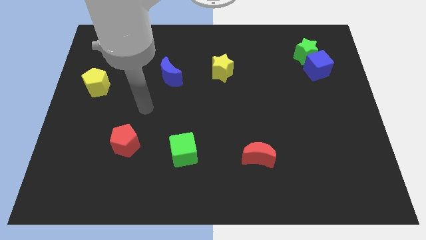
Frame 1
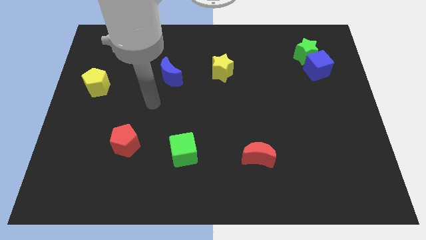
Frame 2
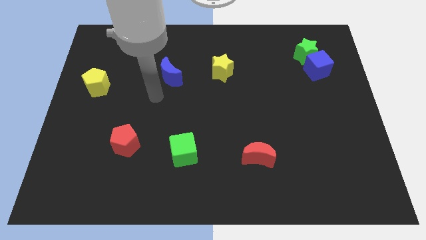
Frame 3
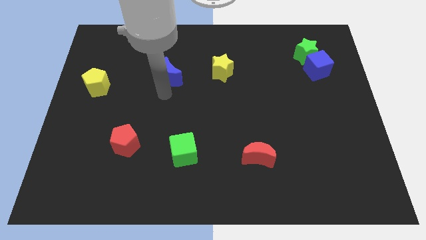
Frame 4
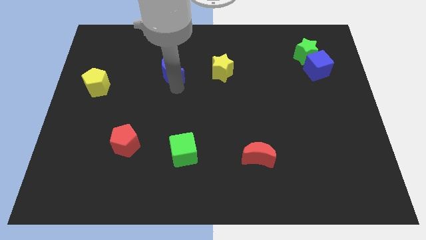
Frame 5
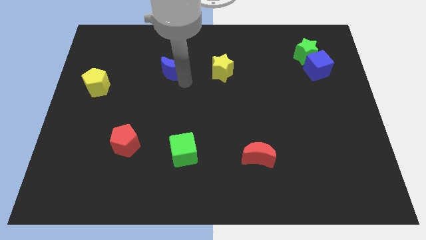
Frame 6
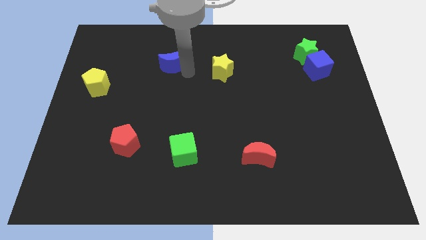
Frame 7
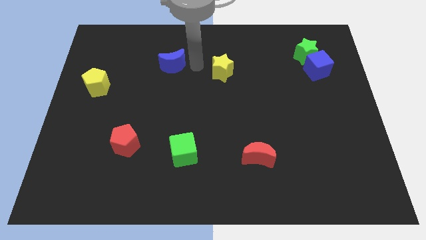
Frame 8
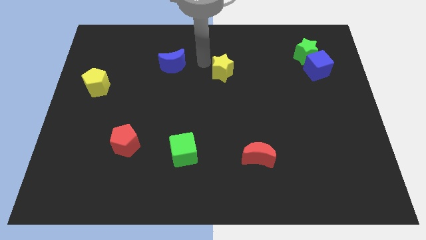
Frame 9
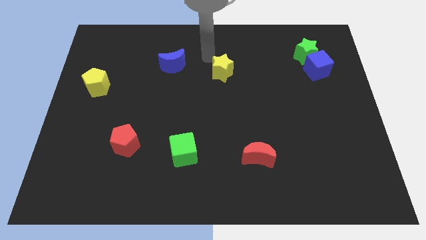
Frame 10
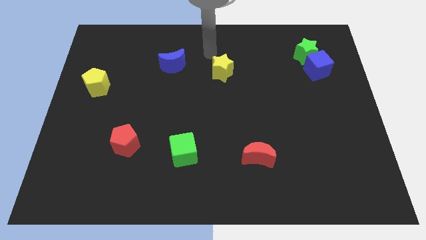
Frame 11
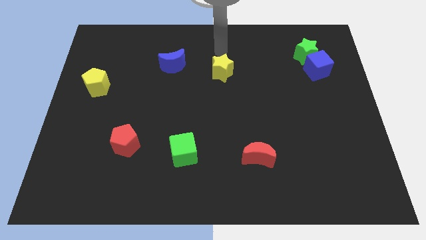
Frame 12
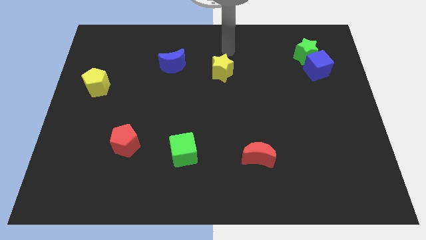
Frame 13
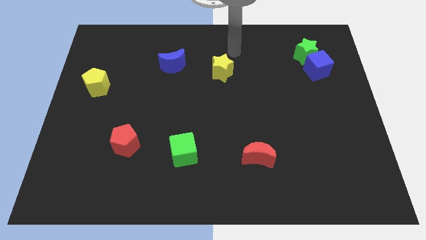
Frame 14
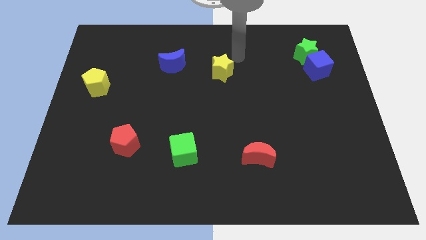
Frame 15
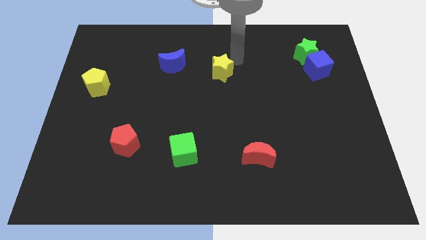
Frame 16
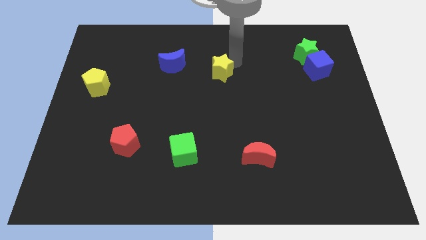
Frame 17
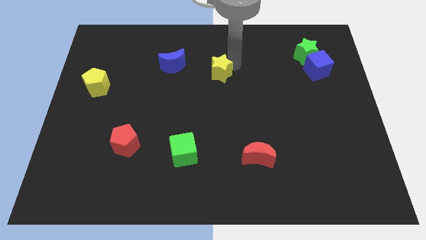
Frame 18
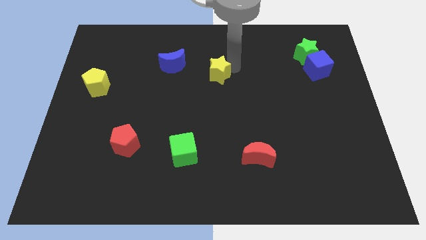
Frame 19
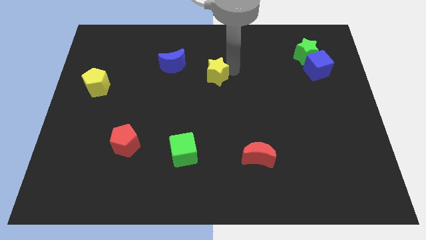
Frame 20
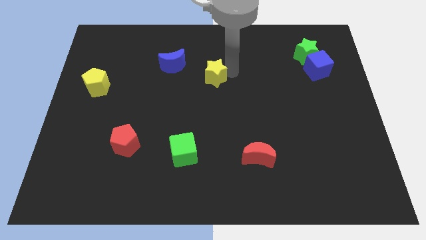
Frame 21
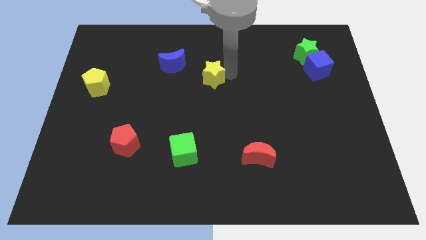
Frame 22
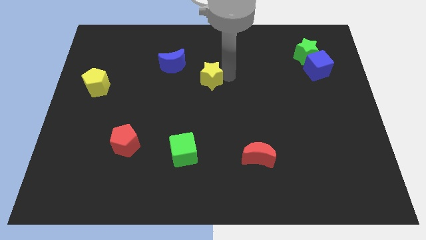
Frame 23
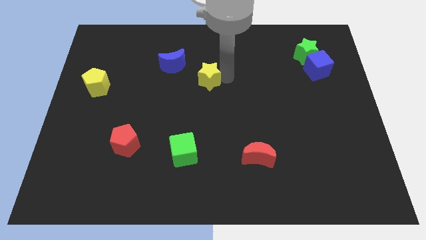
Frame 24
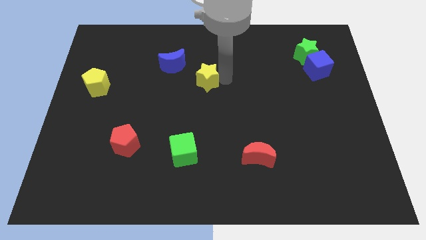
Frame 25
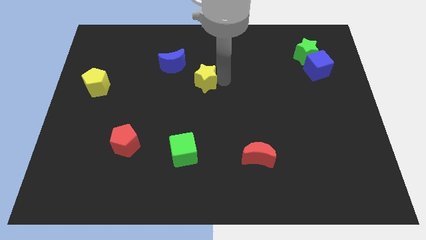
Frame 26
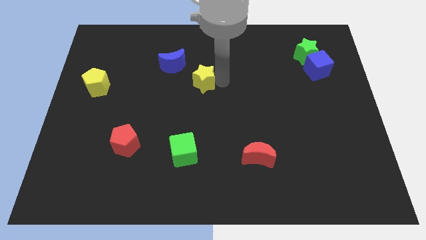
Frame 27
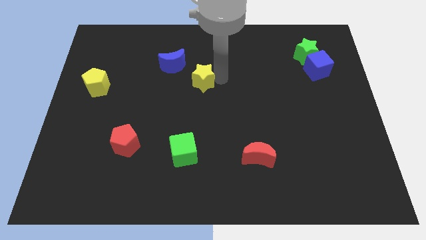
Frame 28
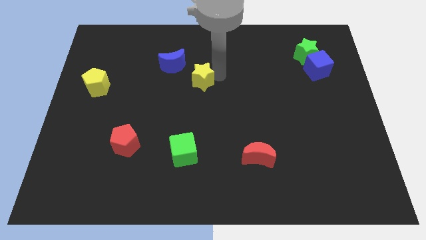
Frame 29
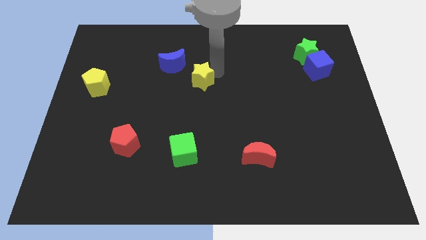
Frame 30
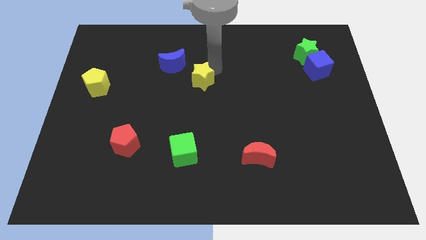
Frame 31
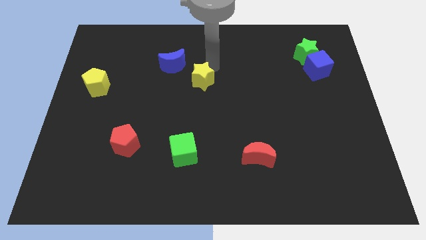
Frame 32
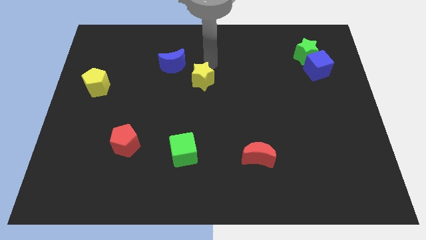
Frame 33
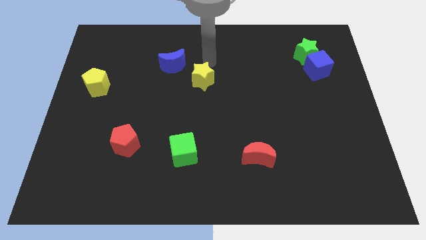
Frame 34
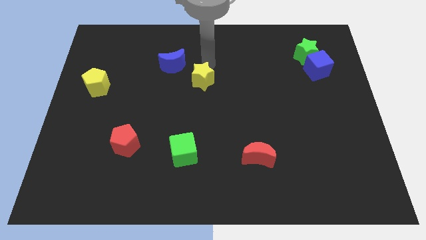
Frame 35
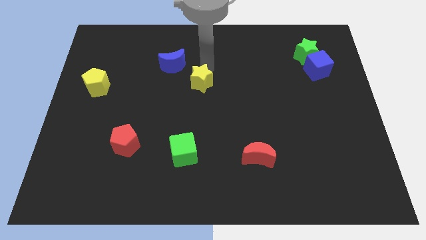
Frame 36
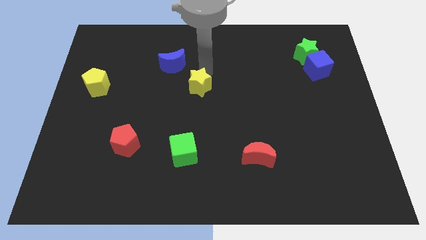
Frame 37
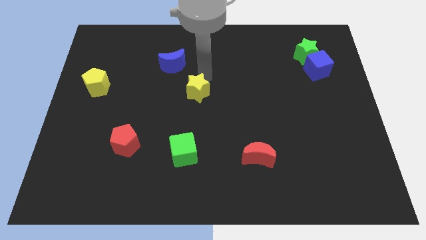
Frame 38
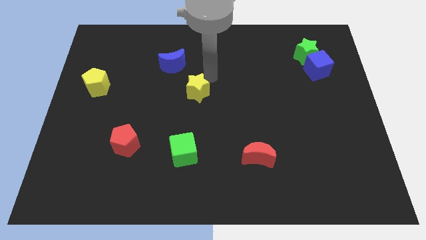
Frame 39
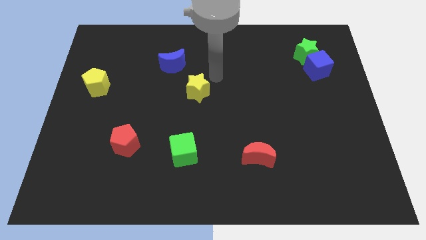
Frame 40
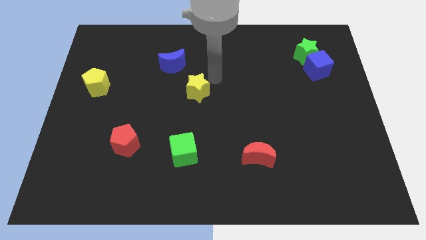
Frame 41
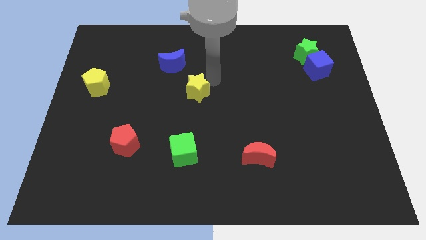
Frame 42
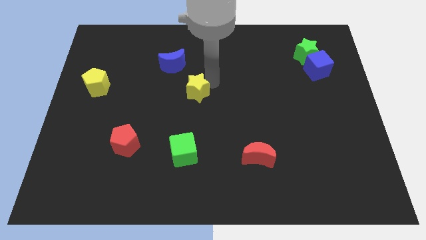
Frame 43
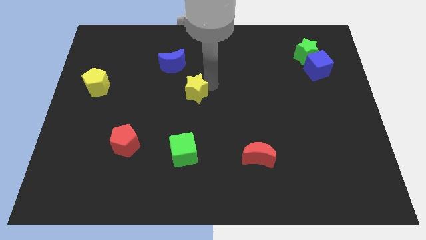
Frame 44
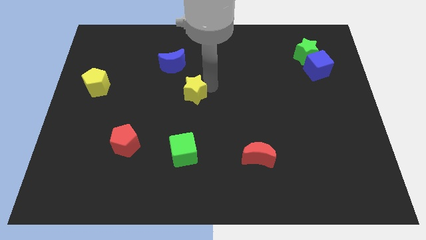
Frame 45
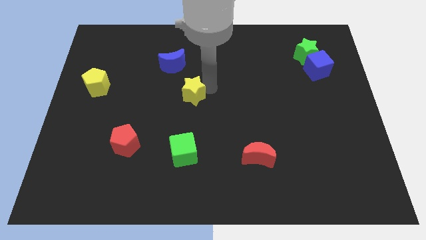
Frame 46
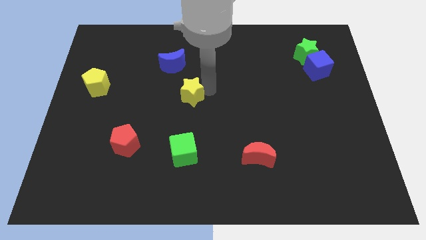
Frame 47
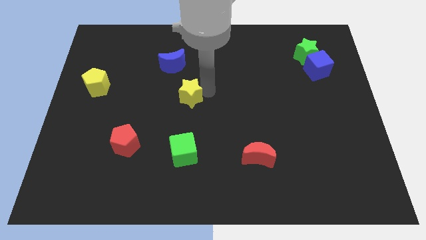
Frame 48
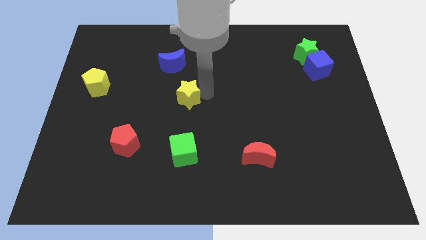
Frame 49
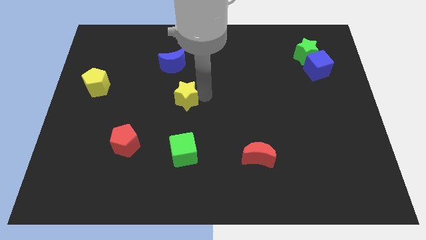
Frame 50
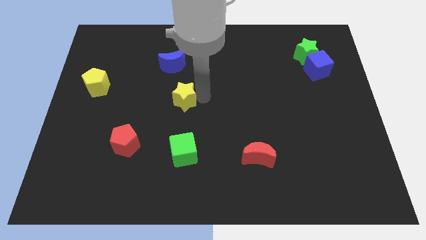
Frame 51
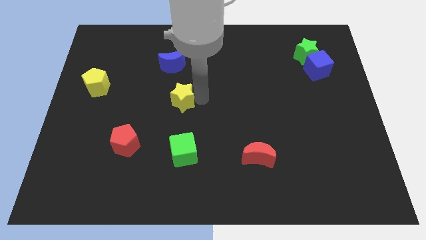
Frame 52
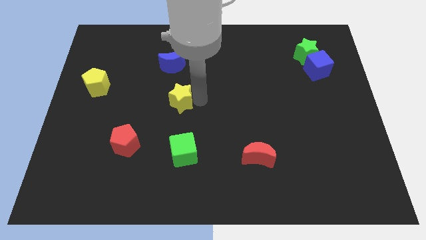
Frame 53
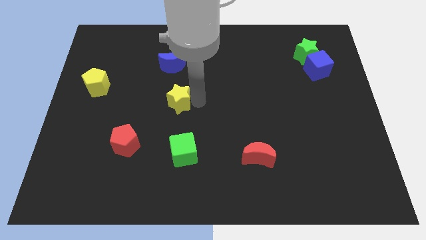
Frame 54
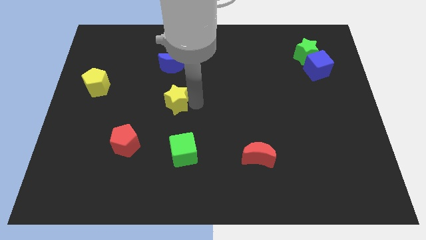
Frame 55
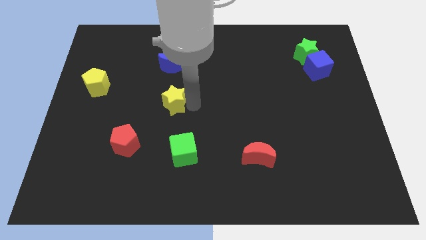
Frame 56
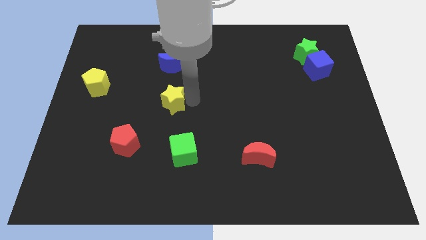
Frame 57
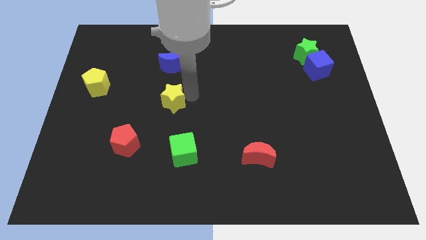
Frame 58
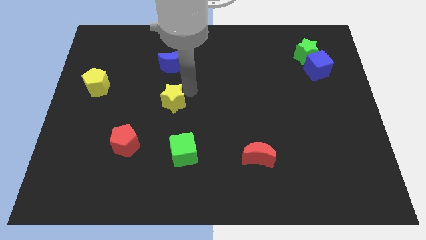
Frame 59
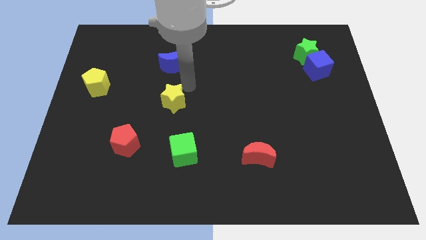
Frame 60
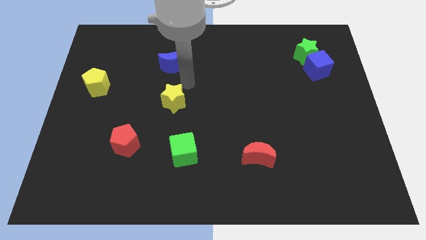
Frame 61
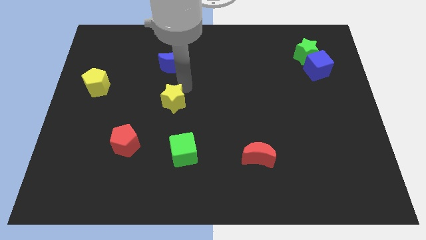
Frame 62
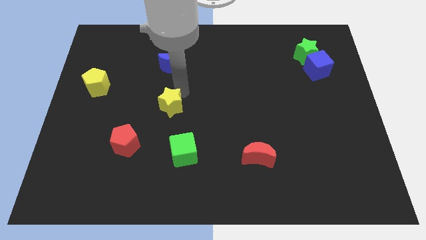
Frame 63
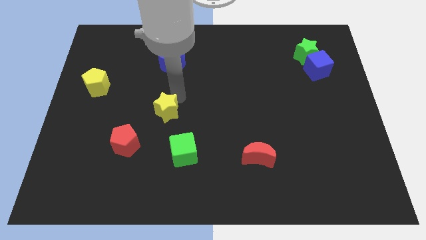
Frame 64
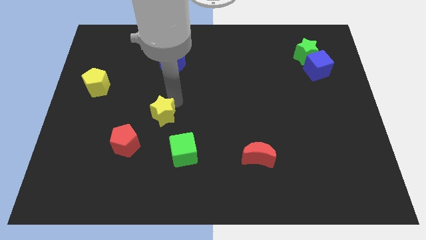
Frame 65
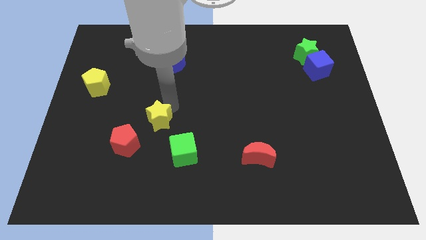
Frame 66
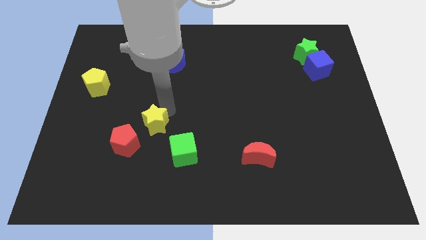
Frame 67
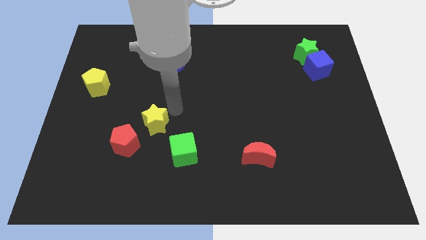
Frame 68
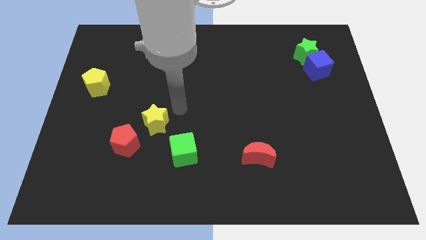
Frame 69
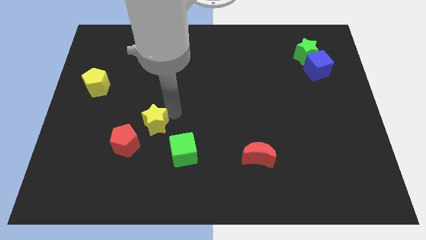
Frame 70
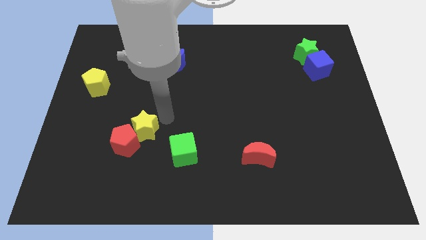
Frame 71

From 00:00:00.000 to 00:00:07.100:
slide the yellow star towards the red pentagon
